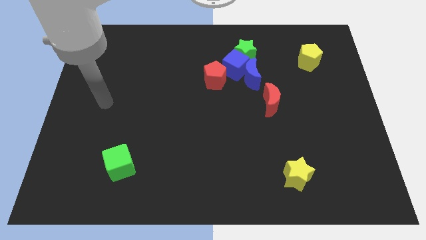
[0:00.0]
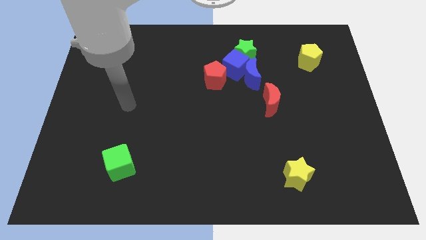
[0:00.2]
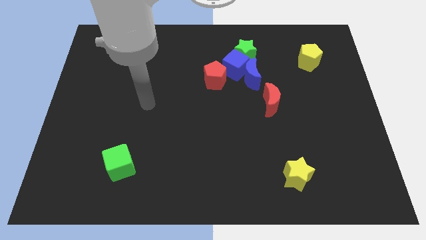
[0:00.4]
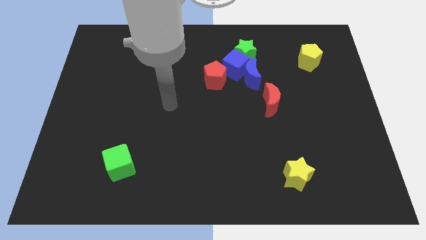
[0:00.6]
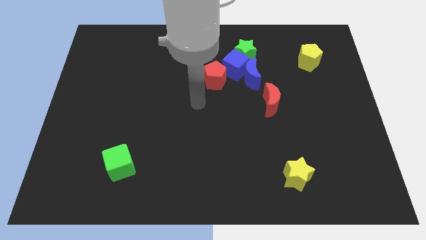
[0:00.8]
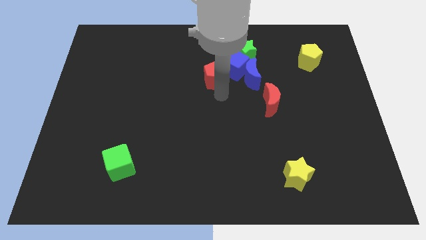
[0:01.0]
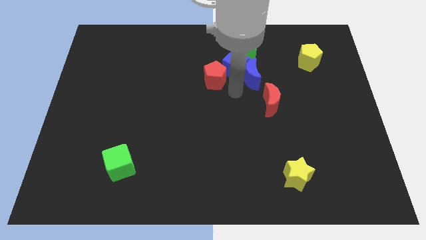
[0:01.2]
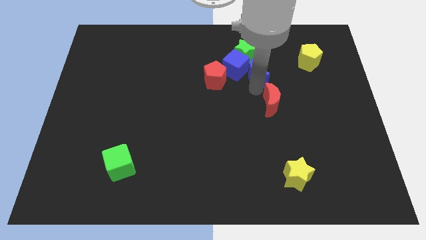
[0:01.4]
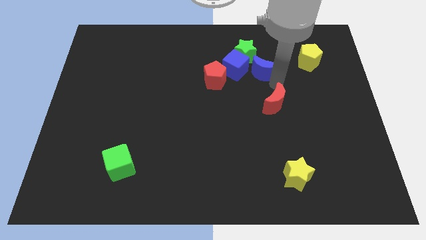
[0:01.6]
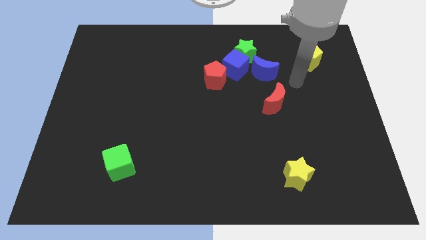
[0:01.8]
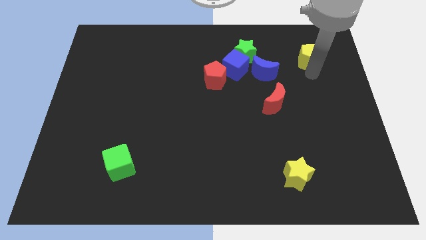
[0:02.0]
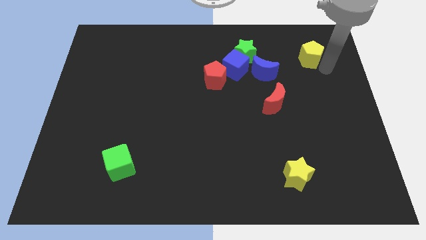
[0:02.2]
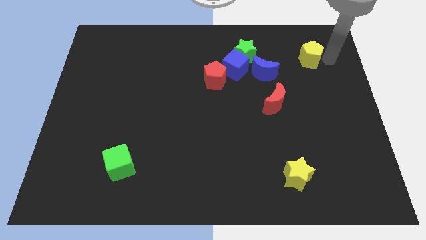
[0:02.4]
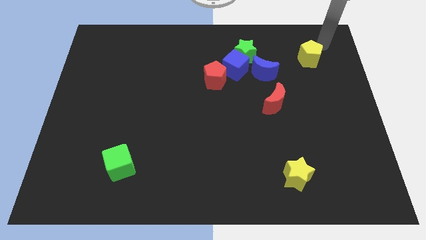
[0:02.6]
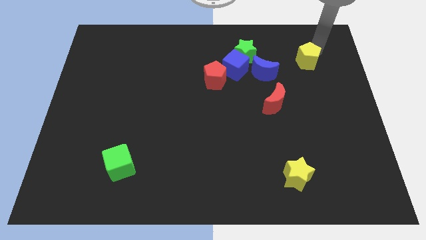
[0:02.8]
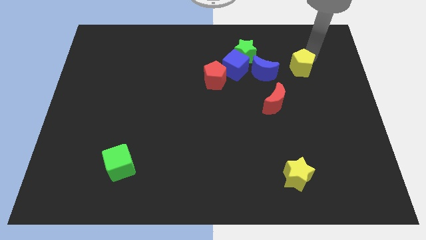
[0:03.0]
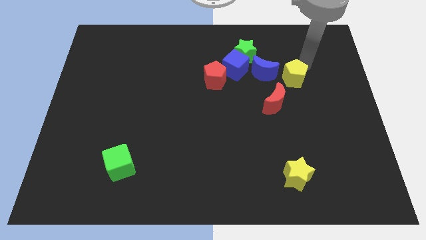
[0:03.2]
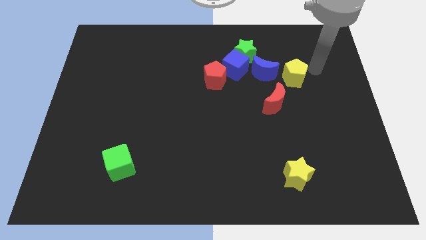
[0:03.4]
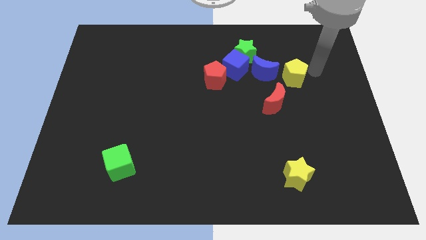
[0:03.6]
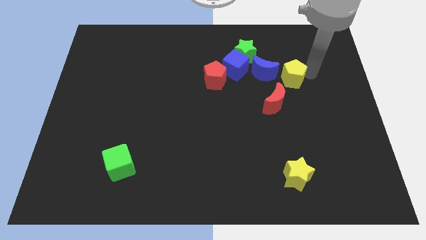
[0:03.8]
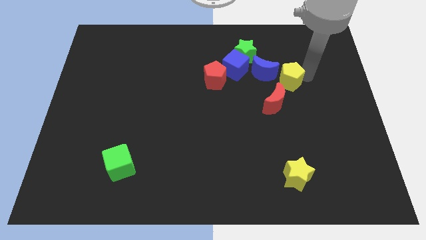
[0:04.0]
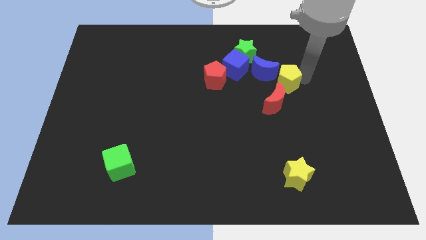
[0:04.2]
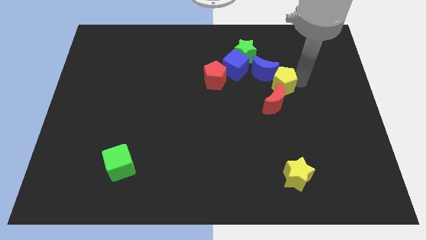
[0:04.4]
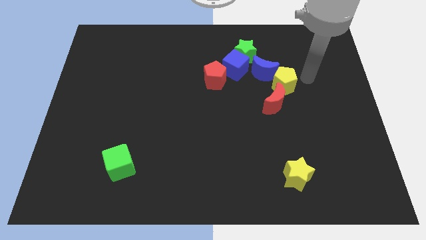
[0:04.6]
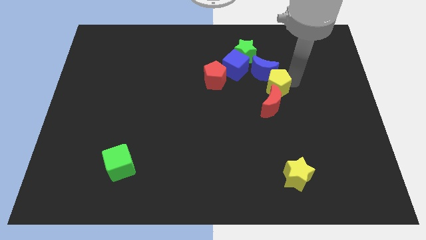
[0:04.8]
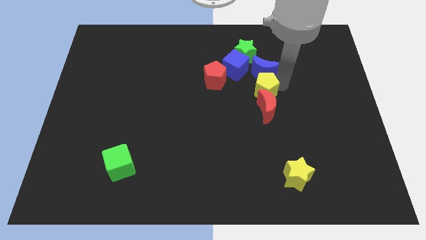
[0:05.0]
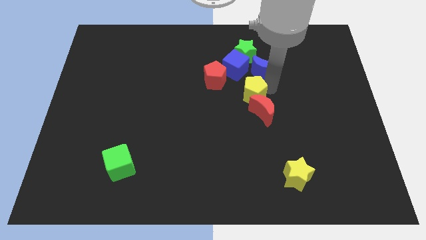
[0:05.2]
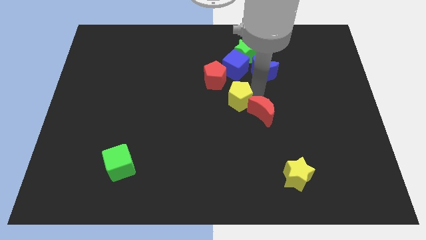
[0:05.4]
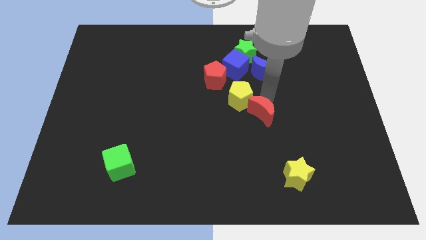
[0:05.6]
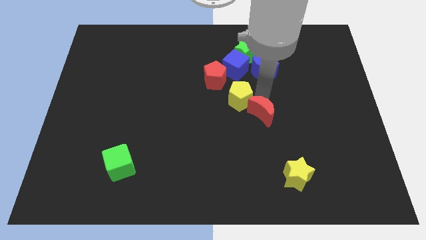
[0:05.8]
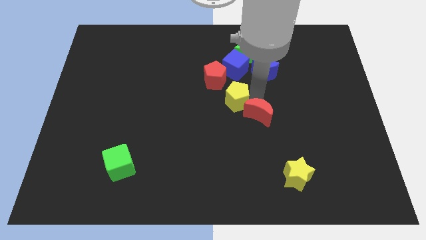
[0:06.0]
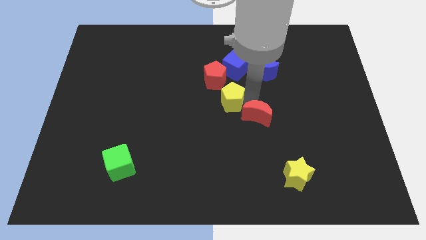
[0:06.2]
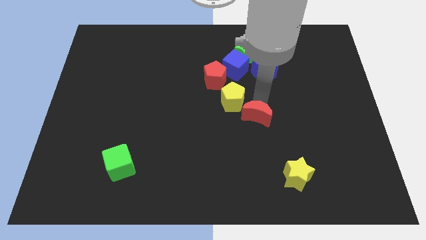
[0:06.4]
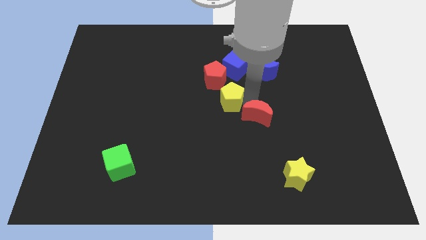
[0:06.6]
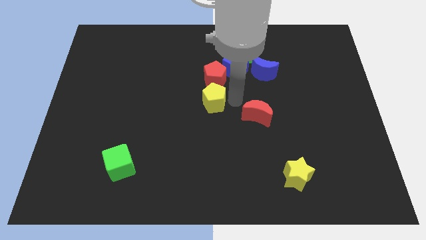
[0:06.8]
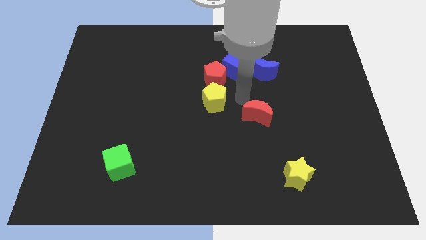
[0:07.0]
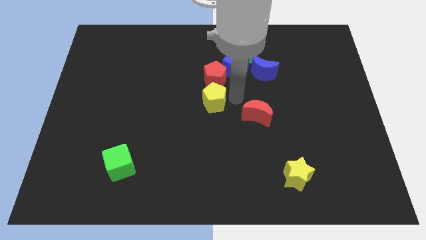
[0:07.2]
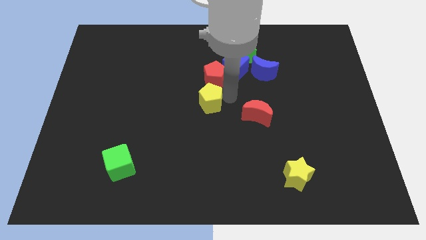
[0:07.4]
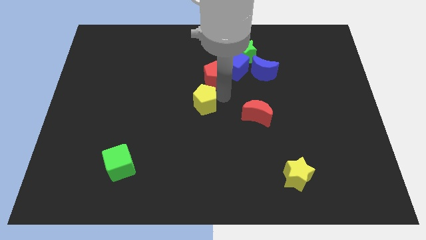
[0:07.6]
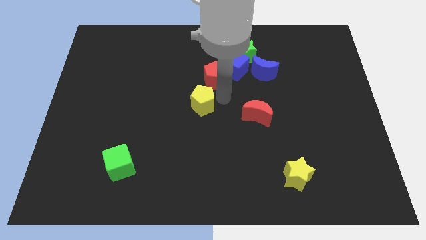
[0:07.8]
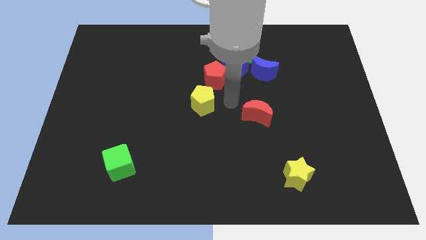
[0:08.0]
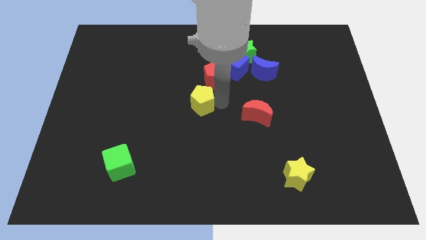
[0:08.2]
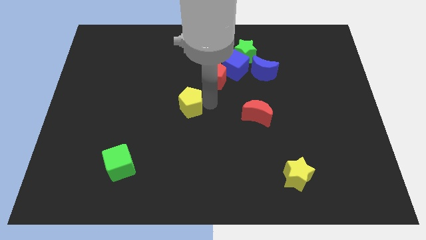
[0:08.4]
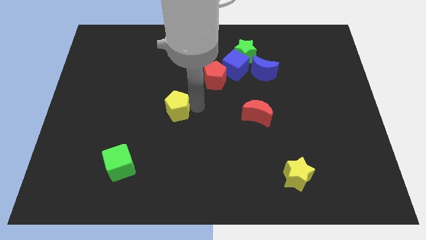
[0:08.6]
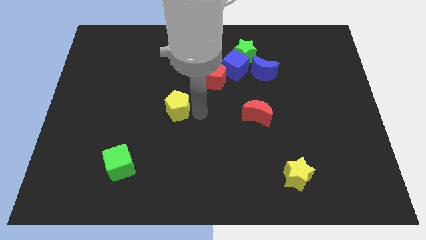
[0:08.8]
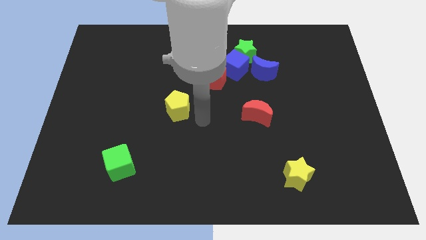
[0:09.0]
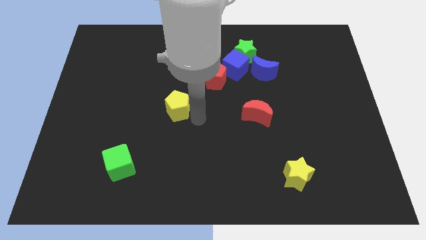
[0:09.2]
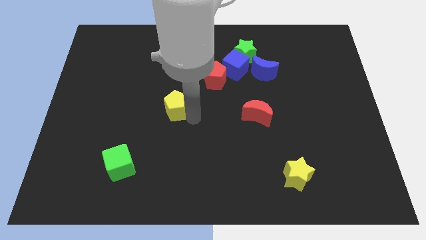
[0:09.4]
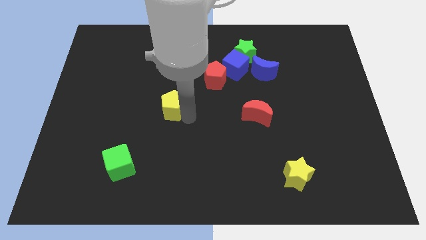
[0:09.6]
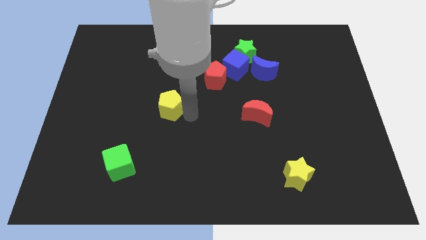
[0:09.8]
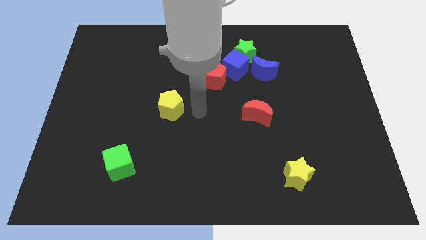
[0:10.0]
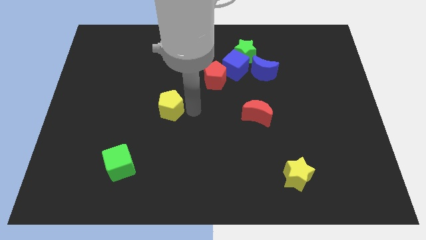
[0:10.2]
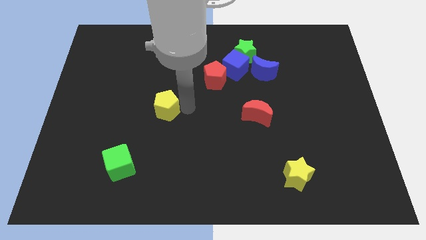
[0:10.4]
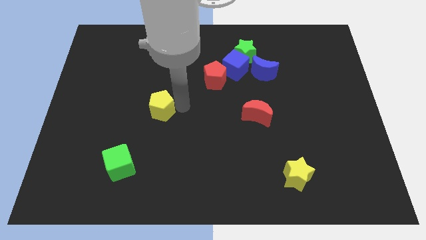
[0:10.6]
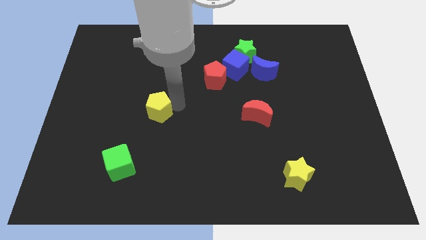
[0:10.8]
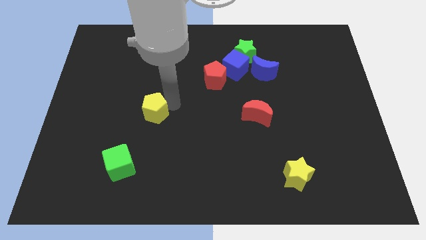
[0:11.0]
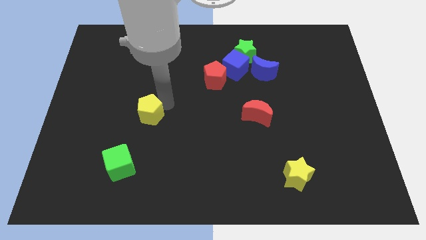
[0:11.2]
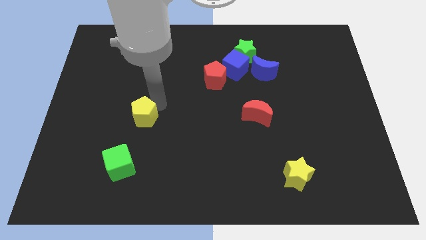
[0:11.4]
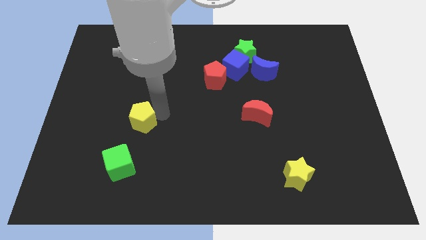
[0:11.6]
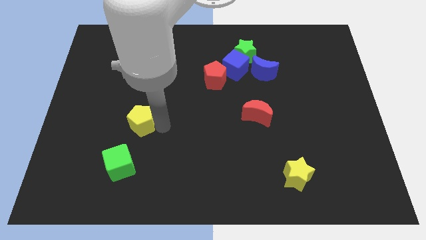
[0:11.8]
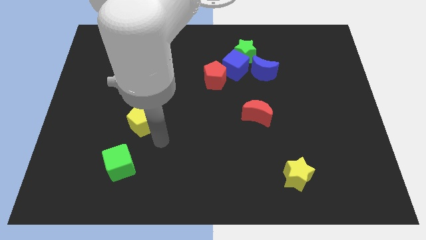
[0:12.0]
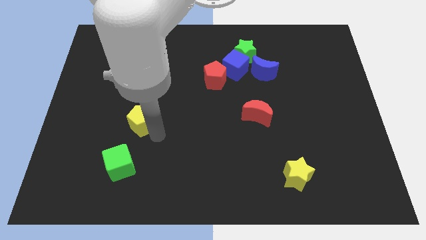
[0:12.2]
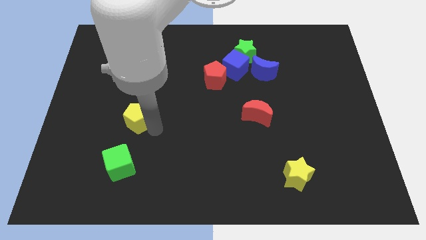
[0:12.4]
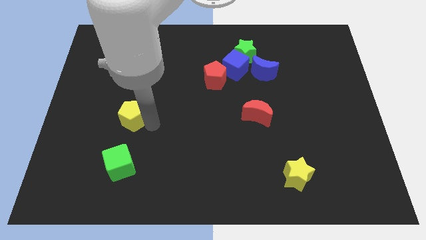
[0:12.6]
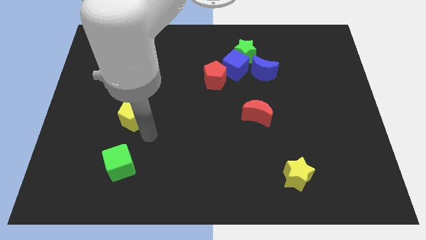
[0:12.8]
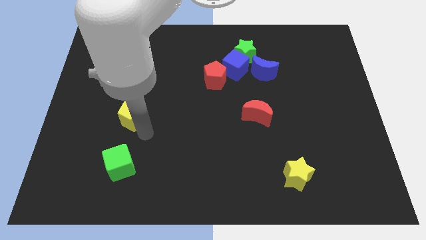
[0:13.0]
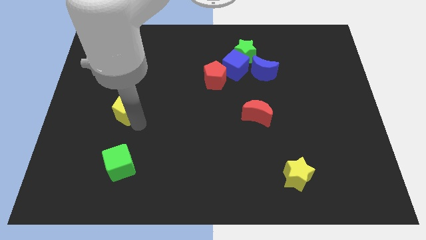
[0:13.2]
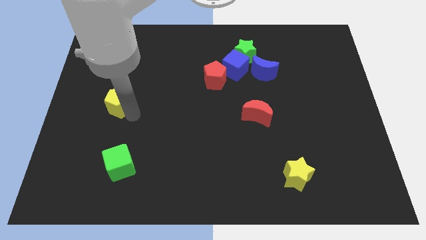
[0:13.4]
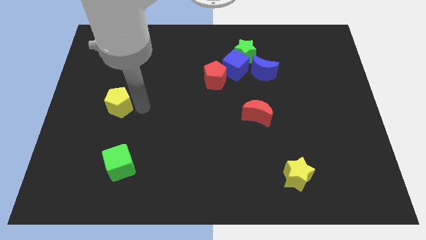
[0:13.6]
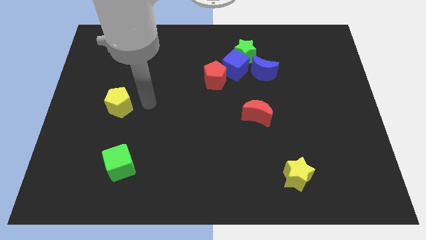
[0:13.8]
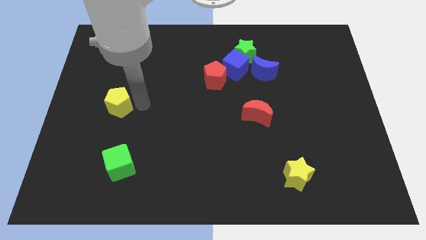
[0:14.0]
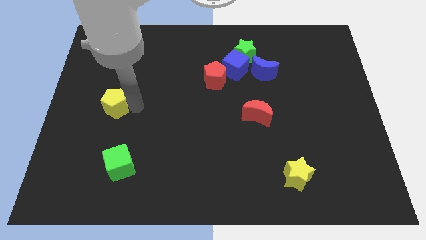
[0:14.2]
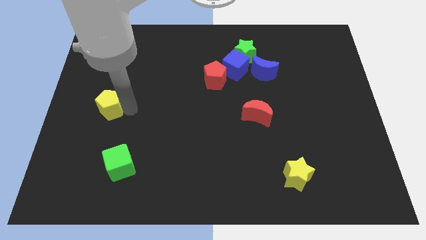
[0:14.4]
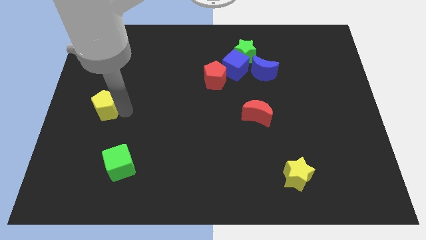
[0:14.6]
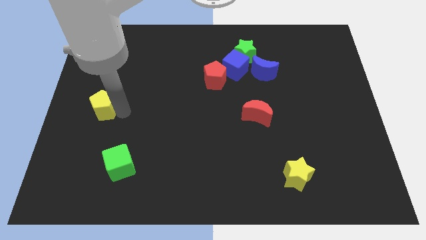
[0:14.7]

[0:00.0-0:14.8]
push the yellow pentagon to the left side of the board
